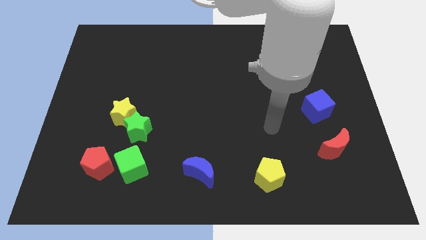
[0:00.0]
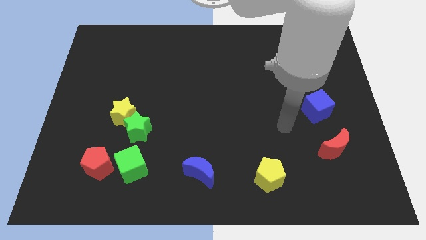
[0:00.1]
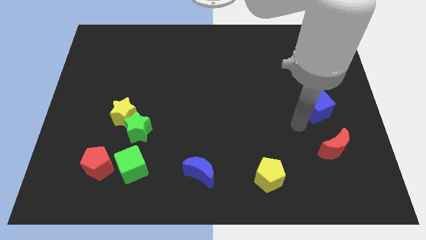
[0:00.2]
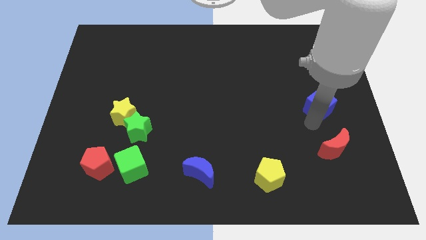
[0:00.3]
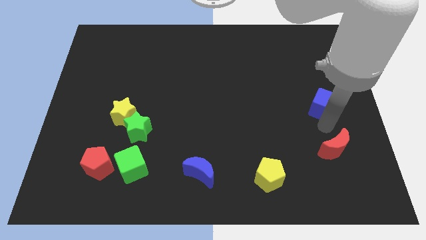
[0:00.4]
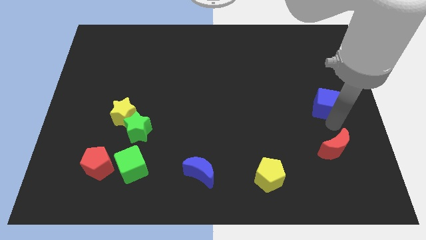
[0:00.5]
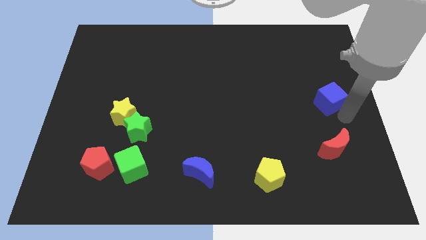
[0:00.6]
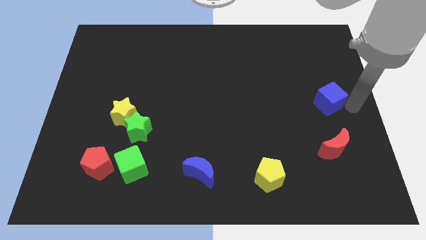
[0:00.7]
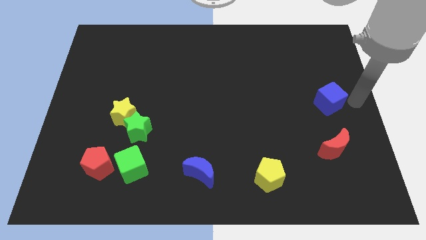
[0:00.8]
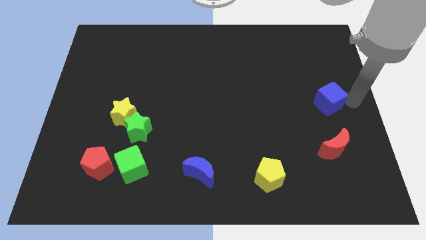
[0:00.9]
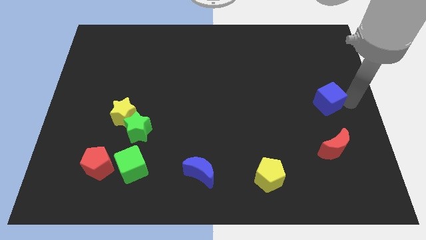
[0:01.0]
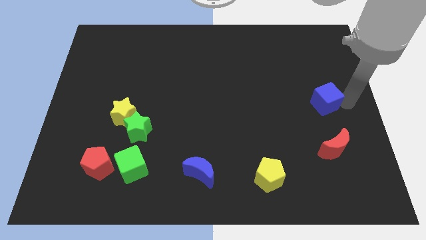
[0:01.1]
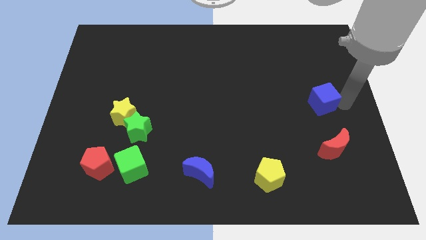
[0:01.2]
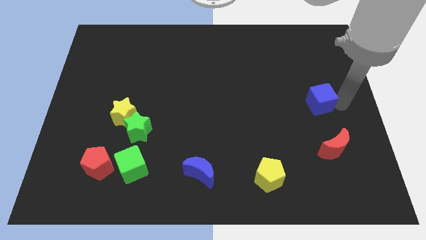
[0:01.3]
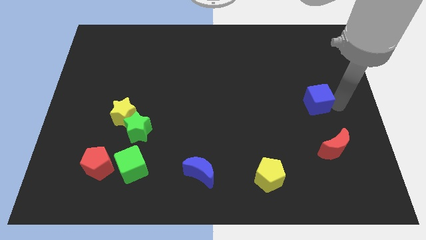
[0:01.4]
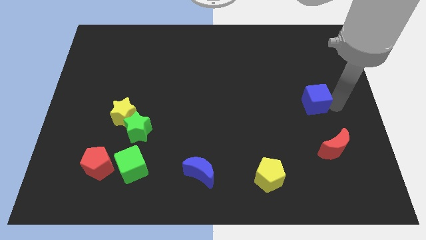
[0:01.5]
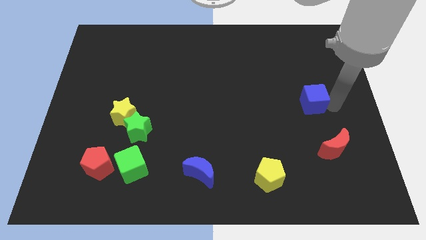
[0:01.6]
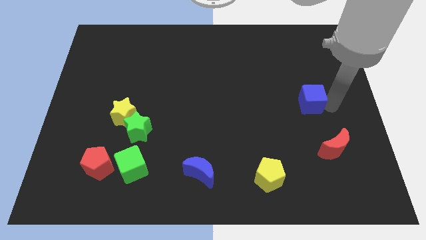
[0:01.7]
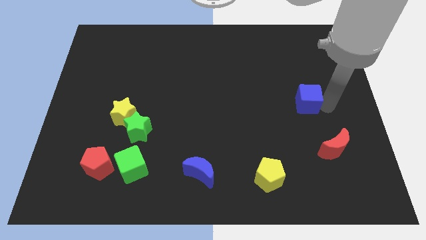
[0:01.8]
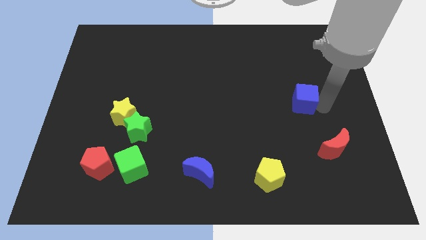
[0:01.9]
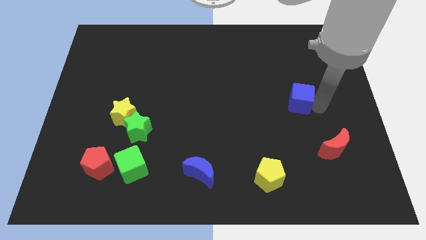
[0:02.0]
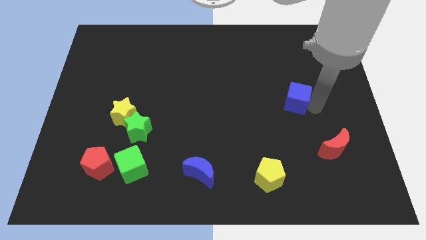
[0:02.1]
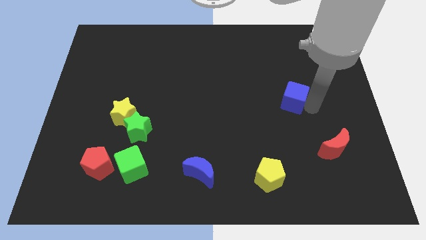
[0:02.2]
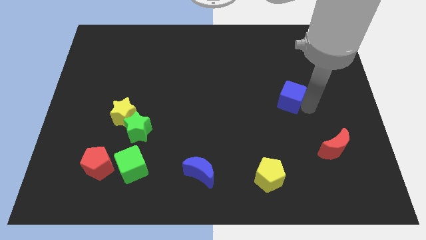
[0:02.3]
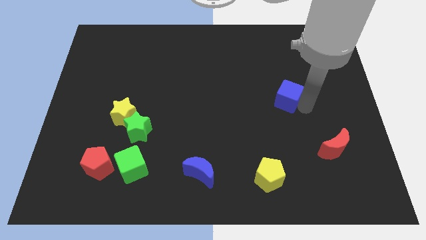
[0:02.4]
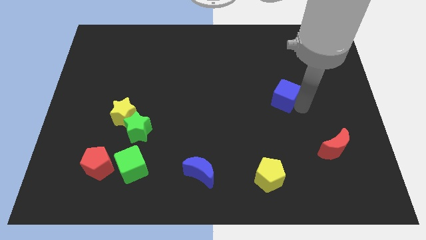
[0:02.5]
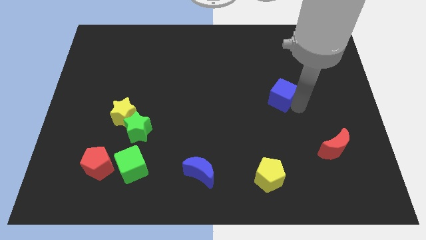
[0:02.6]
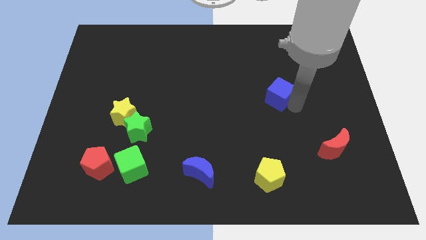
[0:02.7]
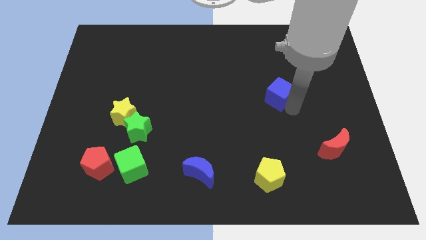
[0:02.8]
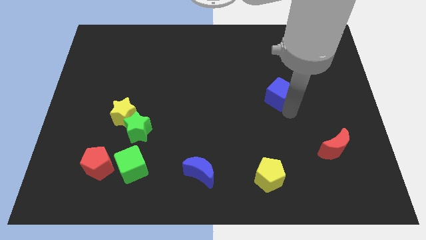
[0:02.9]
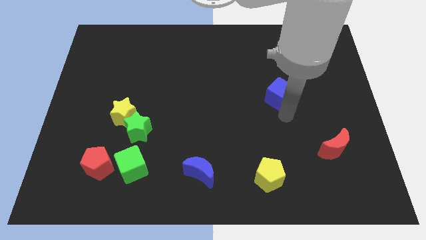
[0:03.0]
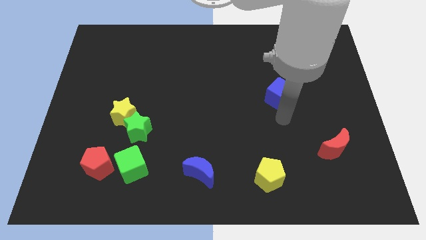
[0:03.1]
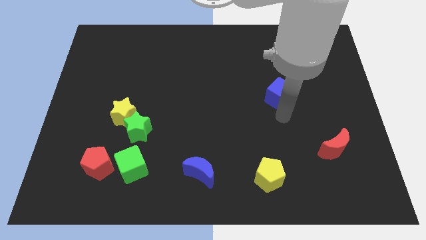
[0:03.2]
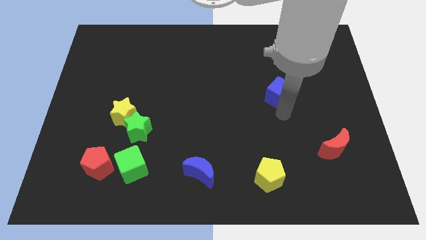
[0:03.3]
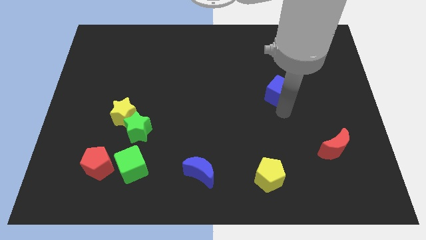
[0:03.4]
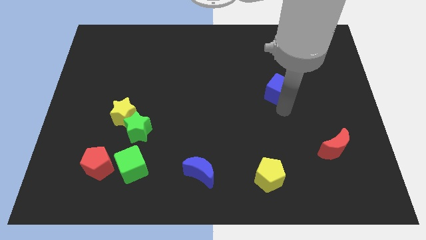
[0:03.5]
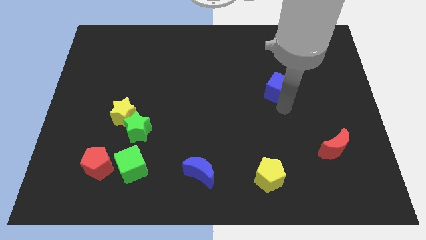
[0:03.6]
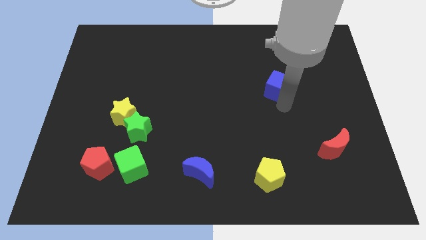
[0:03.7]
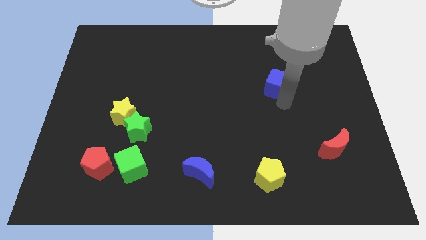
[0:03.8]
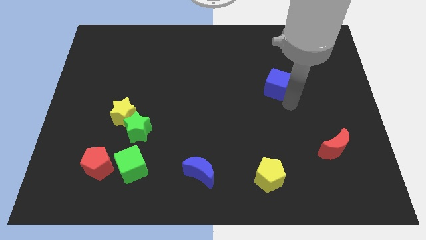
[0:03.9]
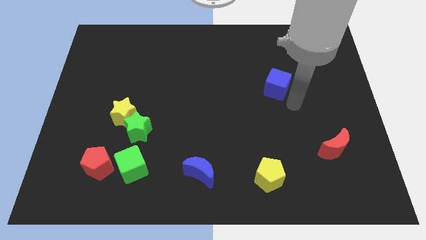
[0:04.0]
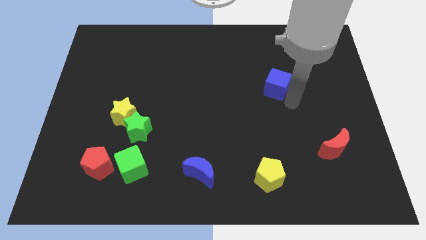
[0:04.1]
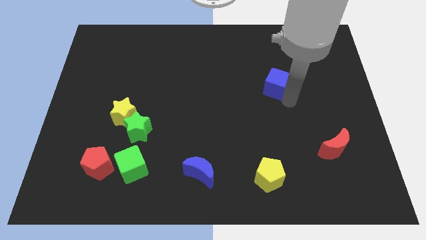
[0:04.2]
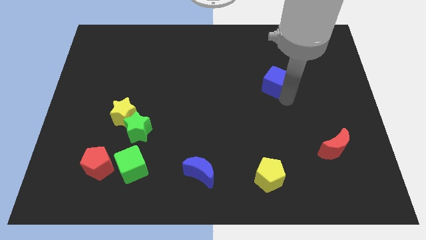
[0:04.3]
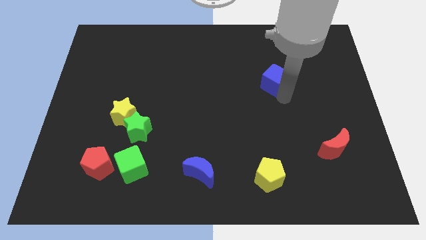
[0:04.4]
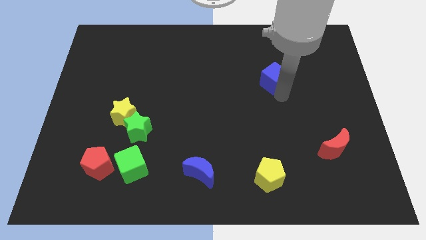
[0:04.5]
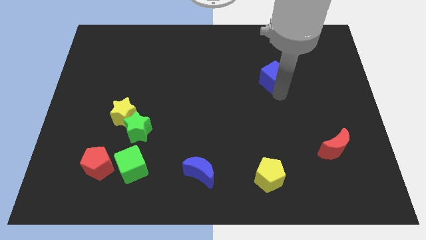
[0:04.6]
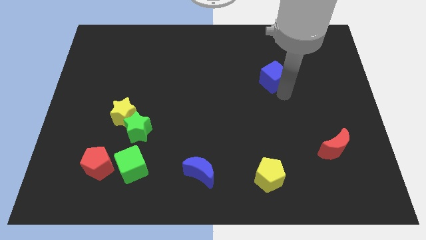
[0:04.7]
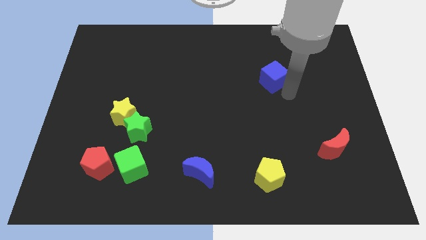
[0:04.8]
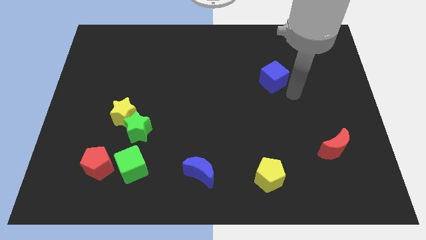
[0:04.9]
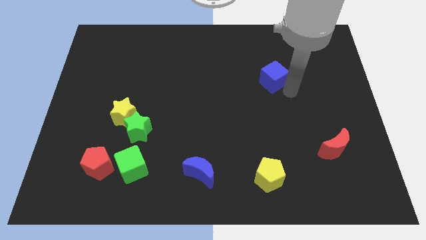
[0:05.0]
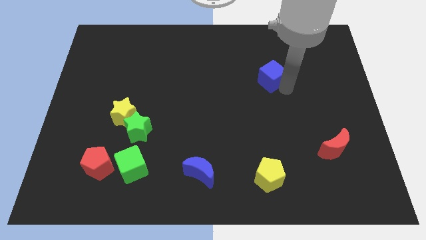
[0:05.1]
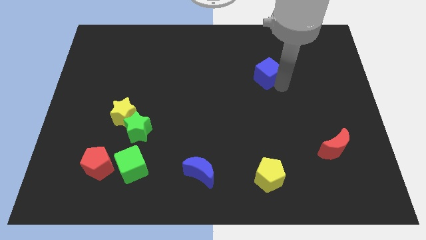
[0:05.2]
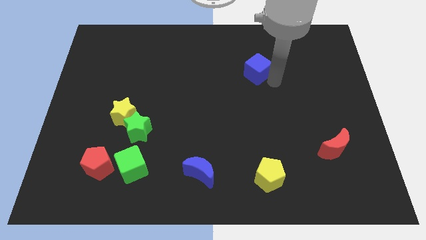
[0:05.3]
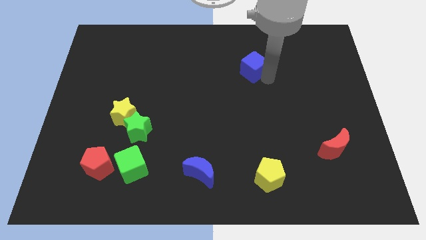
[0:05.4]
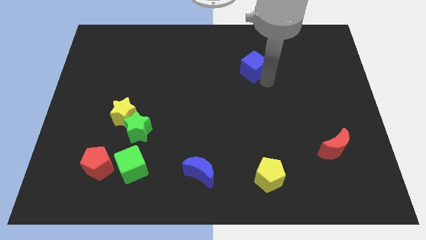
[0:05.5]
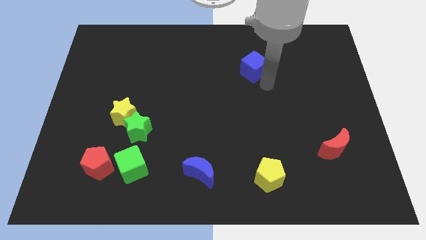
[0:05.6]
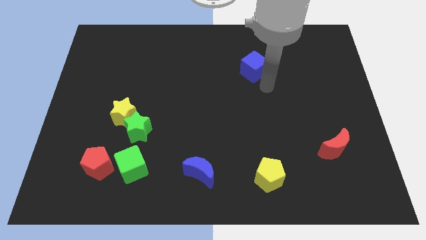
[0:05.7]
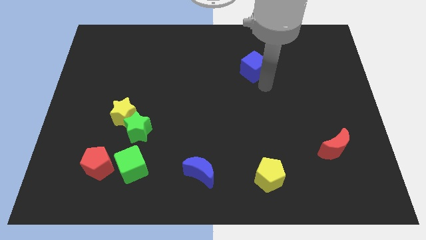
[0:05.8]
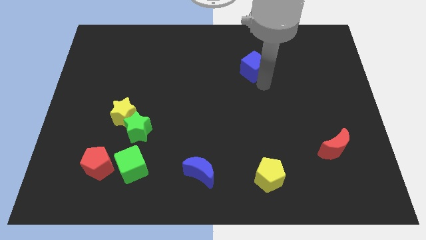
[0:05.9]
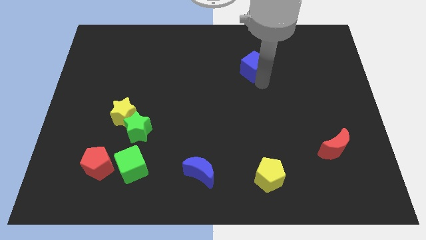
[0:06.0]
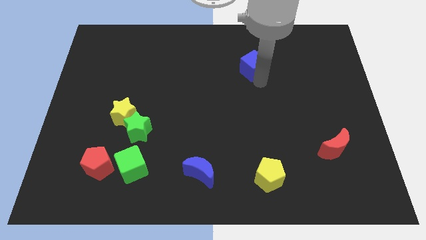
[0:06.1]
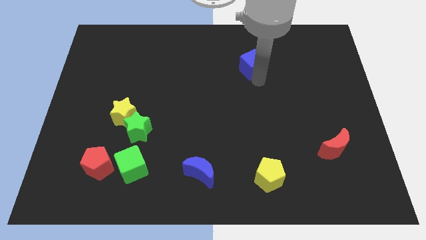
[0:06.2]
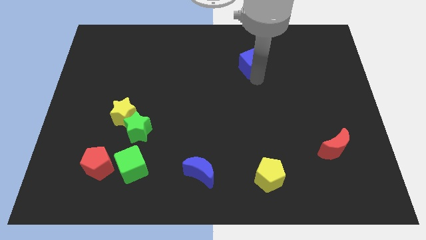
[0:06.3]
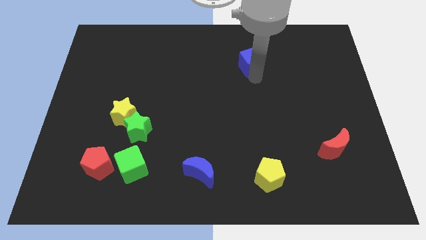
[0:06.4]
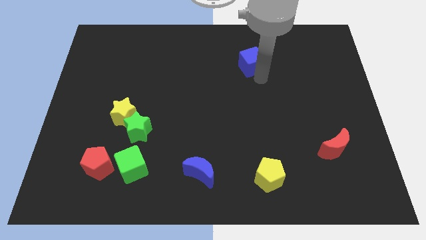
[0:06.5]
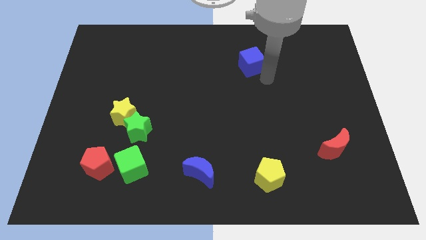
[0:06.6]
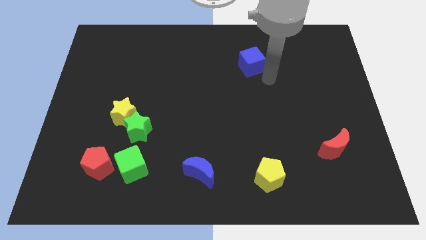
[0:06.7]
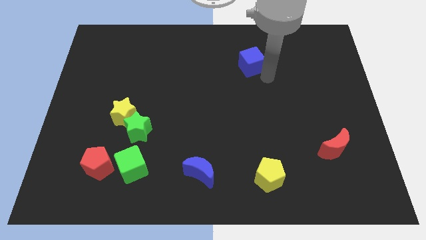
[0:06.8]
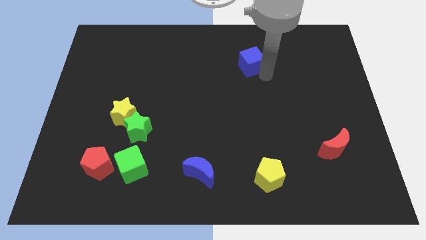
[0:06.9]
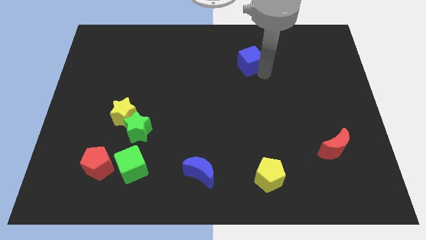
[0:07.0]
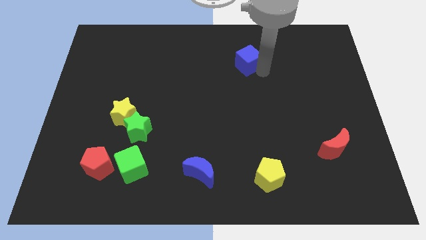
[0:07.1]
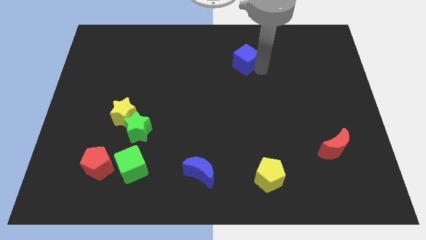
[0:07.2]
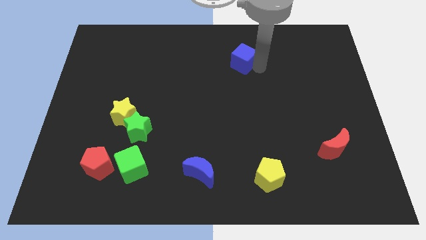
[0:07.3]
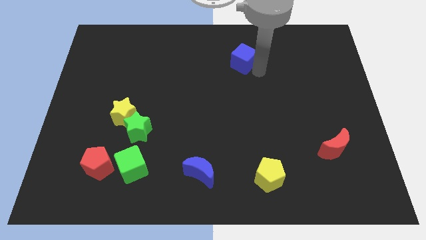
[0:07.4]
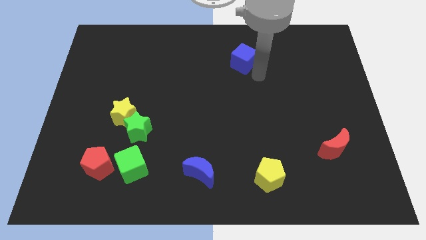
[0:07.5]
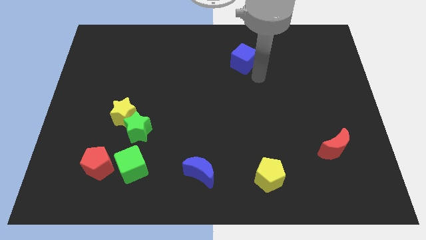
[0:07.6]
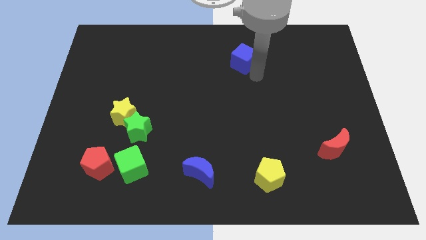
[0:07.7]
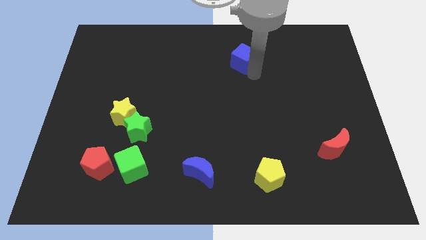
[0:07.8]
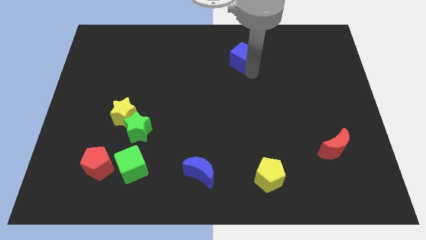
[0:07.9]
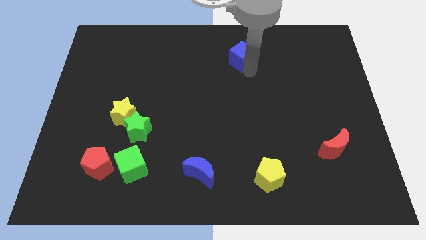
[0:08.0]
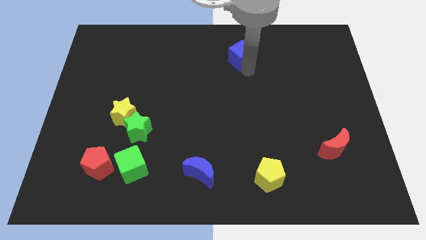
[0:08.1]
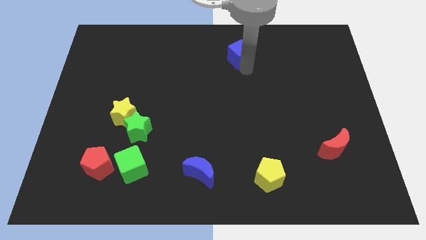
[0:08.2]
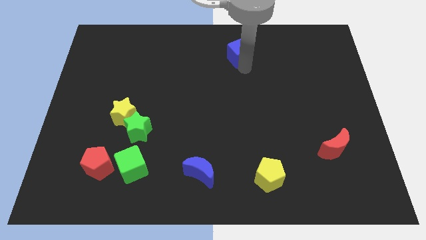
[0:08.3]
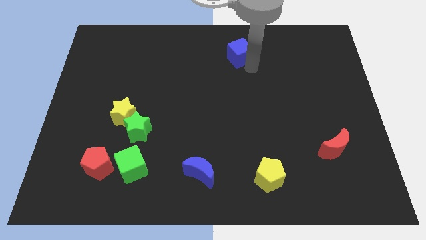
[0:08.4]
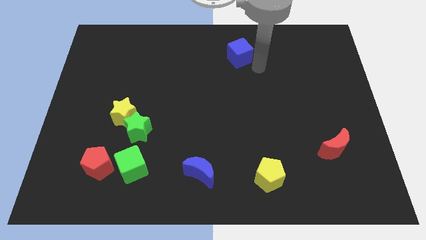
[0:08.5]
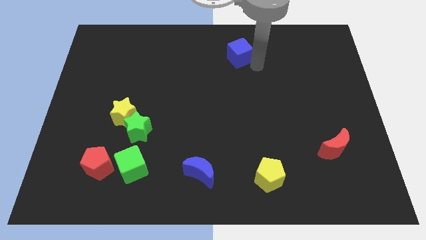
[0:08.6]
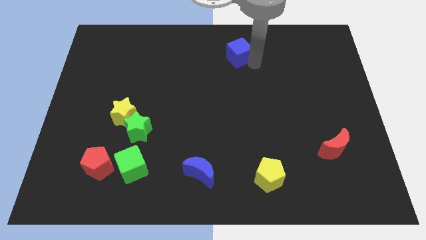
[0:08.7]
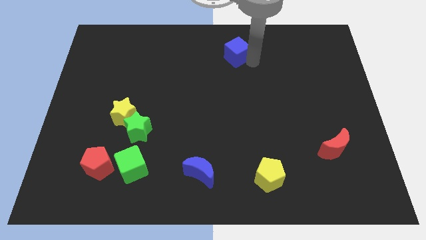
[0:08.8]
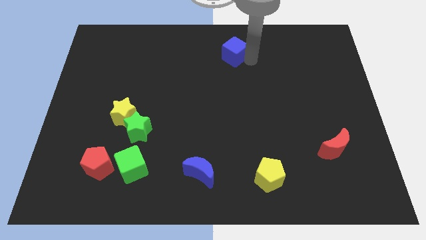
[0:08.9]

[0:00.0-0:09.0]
slide the blue cube to the towards your base
